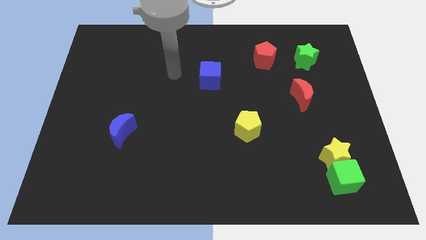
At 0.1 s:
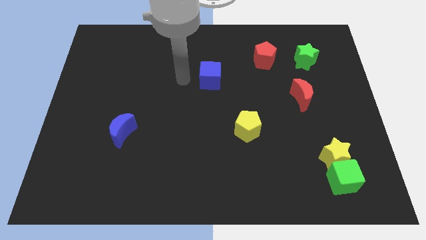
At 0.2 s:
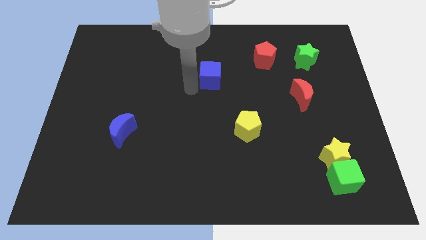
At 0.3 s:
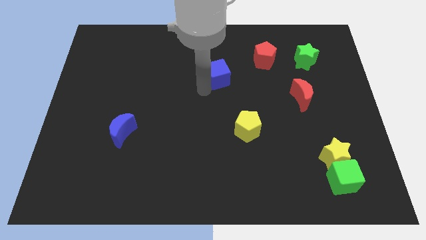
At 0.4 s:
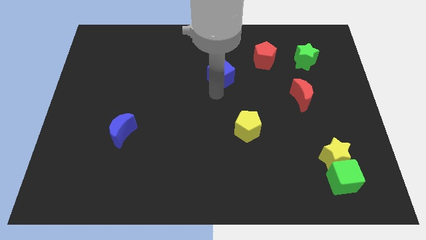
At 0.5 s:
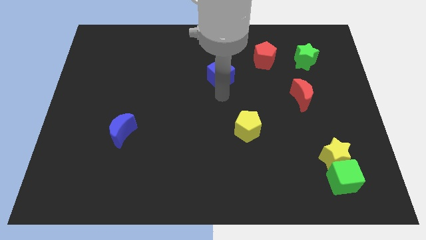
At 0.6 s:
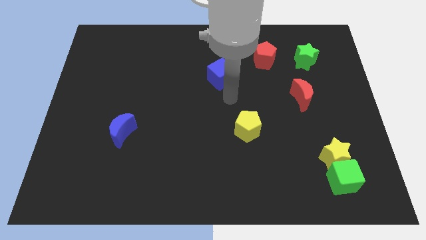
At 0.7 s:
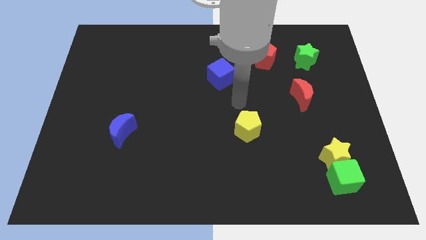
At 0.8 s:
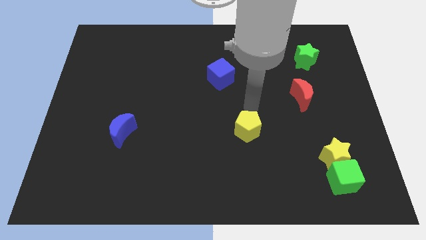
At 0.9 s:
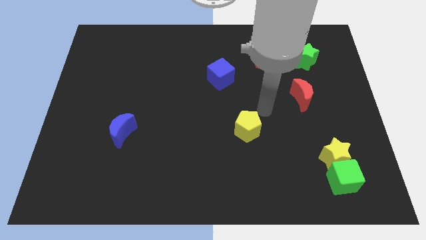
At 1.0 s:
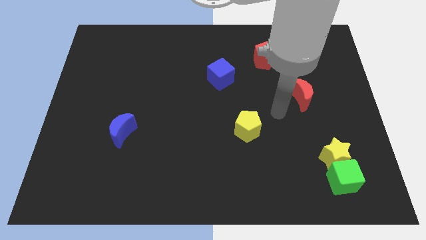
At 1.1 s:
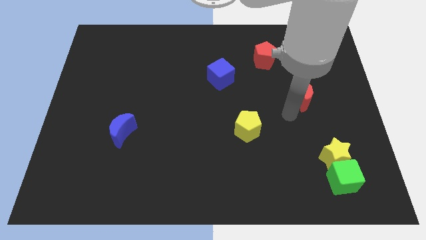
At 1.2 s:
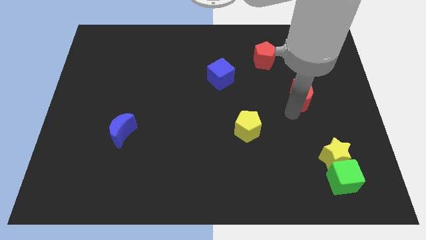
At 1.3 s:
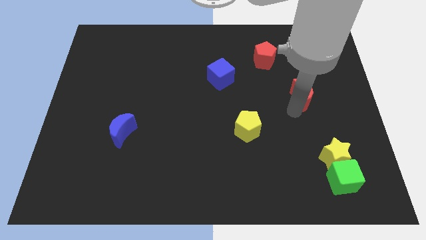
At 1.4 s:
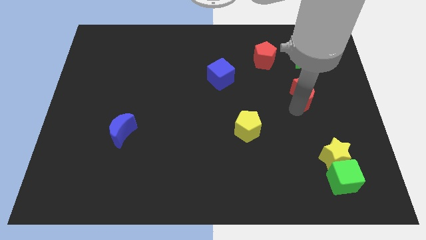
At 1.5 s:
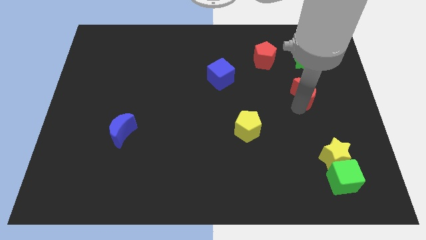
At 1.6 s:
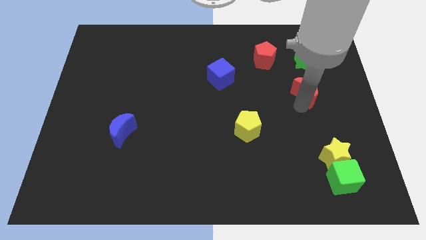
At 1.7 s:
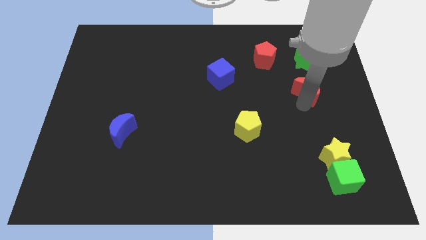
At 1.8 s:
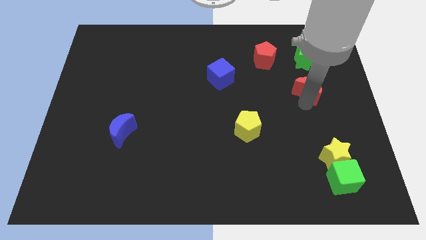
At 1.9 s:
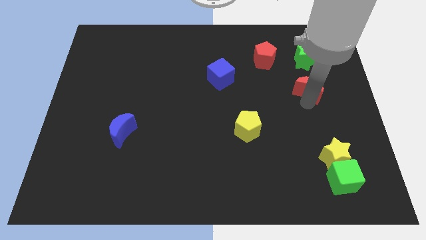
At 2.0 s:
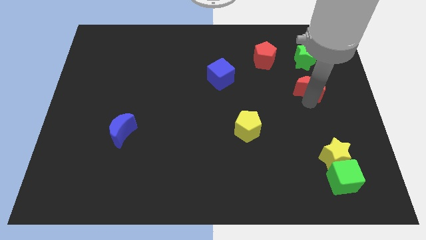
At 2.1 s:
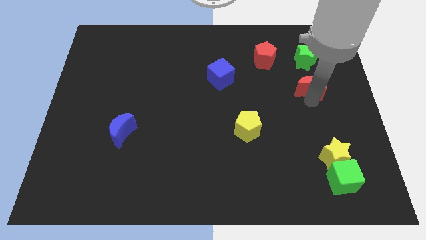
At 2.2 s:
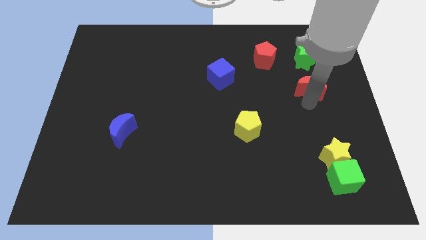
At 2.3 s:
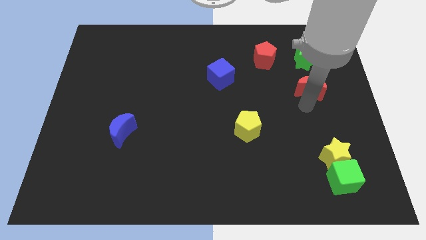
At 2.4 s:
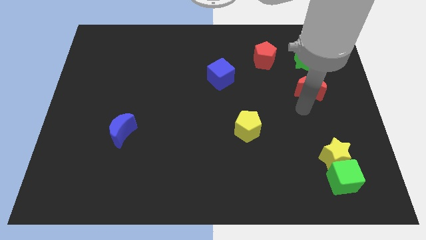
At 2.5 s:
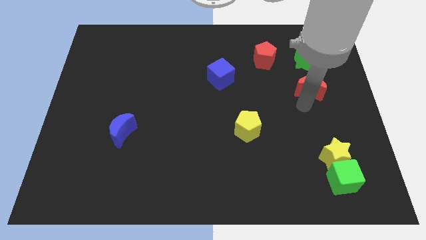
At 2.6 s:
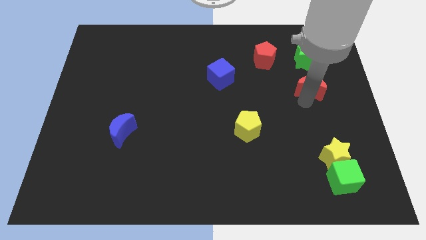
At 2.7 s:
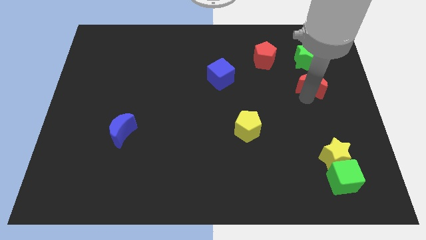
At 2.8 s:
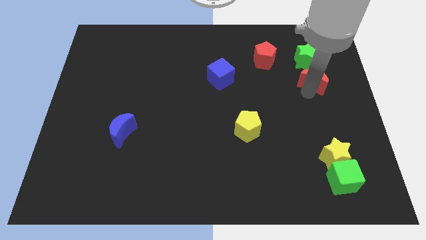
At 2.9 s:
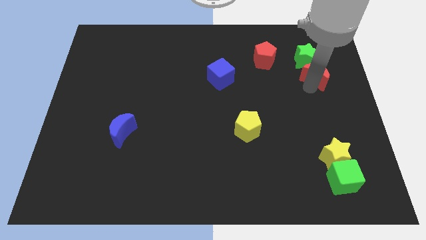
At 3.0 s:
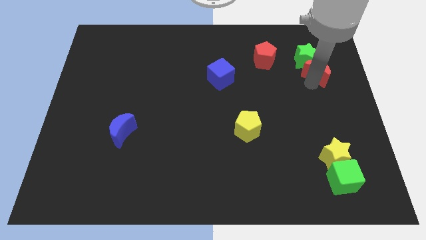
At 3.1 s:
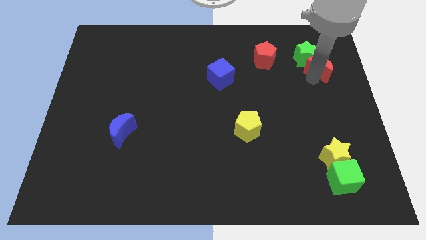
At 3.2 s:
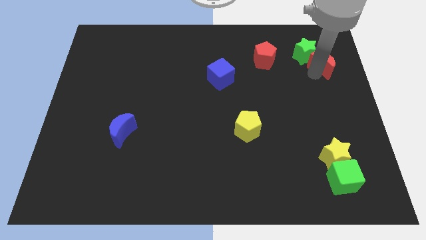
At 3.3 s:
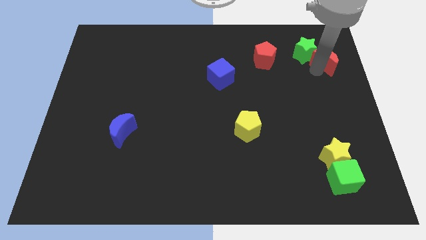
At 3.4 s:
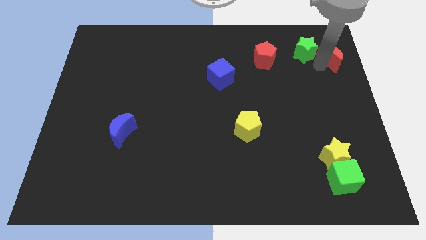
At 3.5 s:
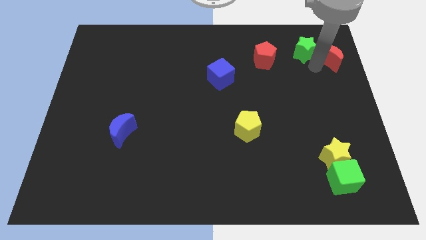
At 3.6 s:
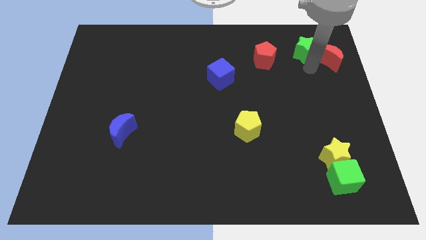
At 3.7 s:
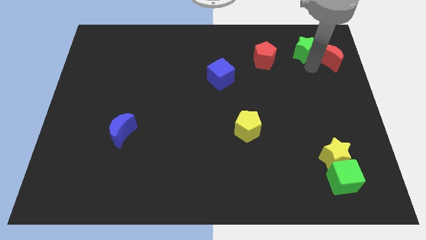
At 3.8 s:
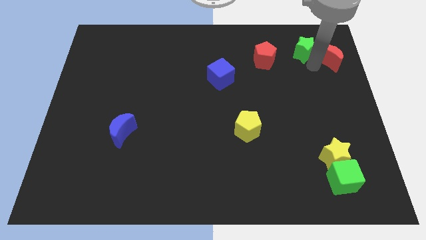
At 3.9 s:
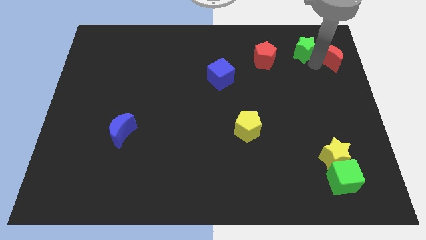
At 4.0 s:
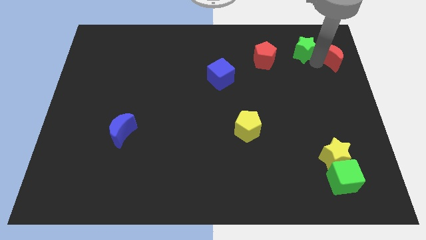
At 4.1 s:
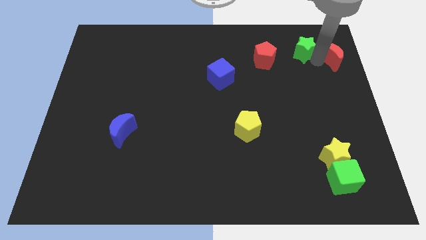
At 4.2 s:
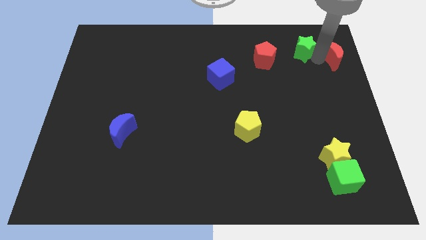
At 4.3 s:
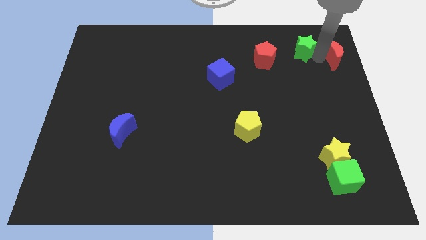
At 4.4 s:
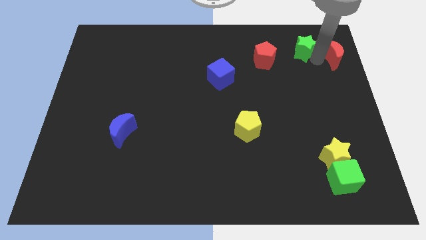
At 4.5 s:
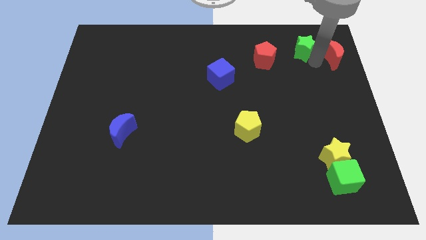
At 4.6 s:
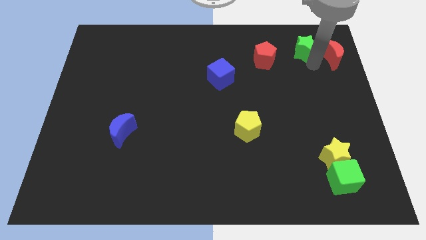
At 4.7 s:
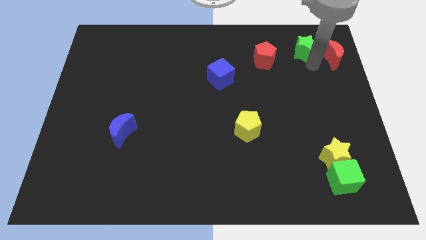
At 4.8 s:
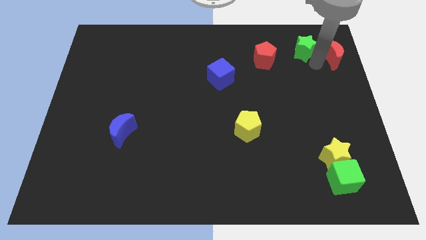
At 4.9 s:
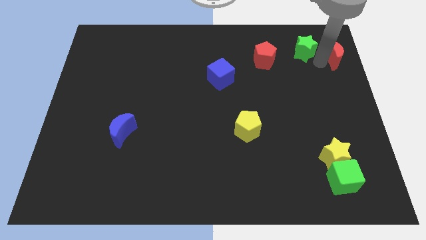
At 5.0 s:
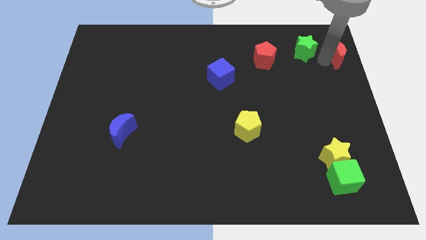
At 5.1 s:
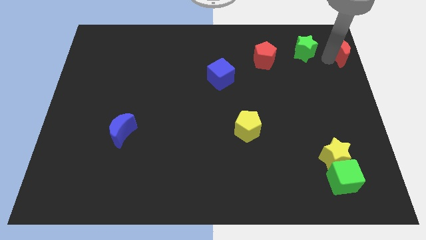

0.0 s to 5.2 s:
push the red moon to the top right corner

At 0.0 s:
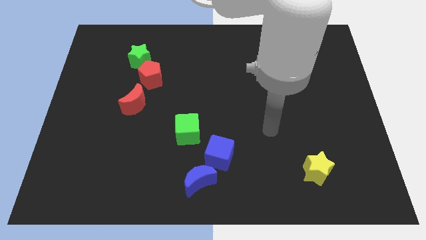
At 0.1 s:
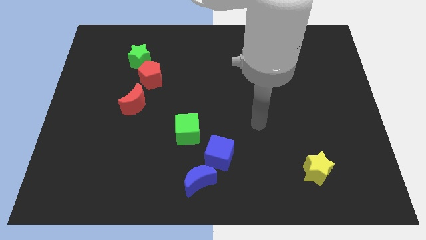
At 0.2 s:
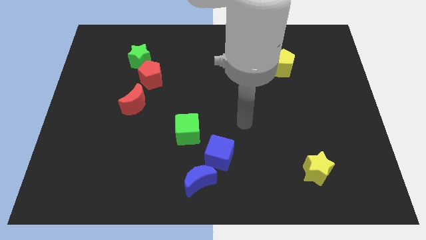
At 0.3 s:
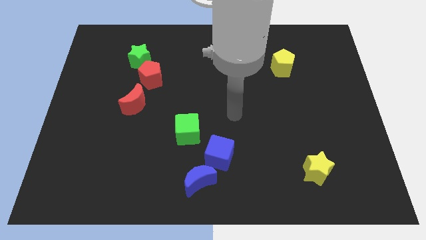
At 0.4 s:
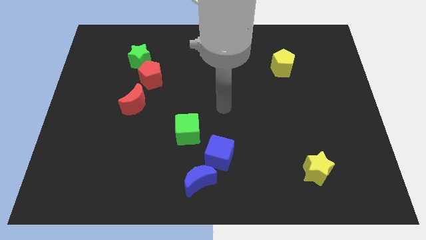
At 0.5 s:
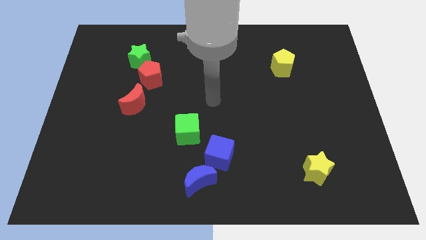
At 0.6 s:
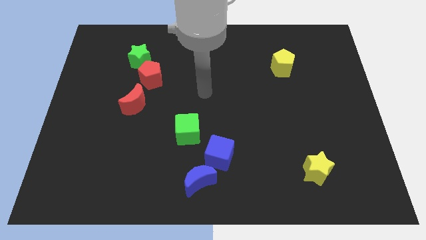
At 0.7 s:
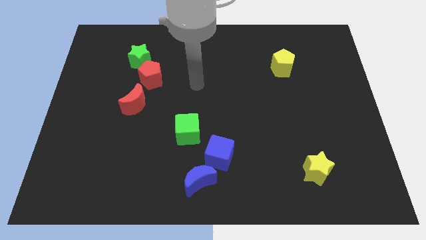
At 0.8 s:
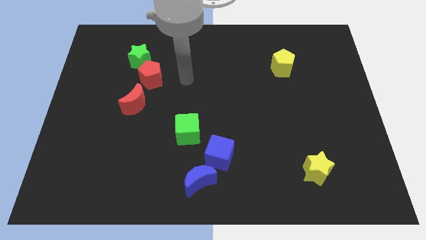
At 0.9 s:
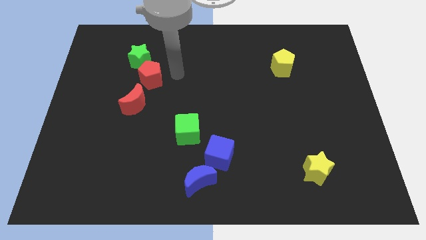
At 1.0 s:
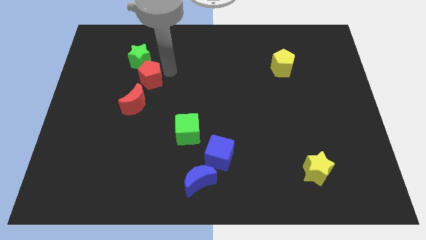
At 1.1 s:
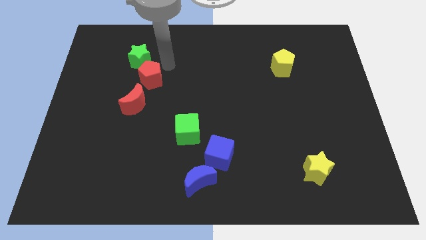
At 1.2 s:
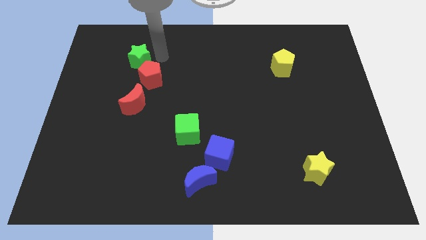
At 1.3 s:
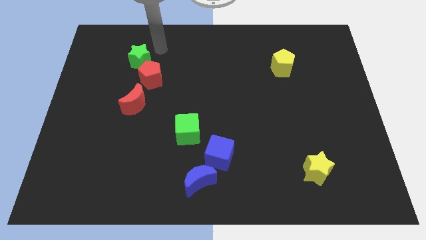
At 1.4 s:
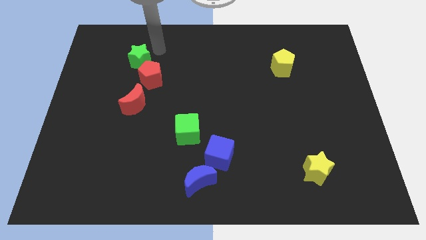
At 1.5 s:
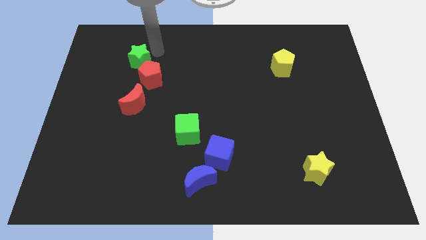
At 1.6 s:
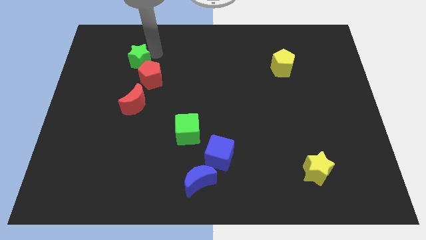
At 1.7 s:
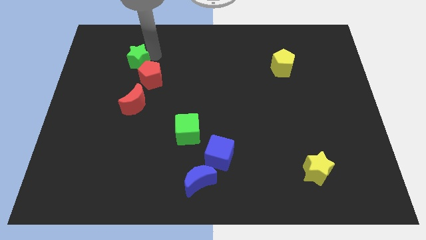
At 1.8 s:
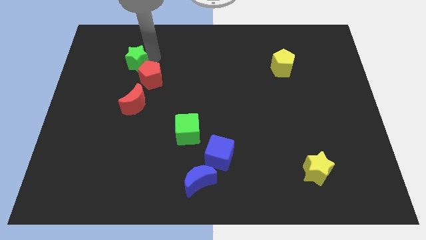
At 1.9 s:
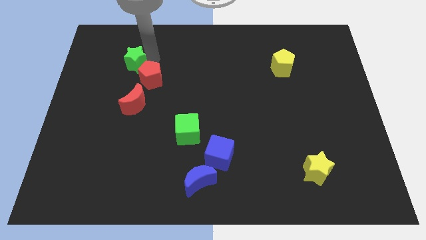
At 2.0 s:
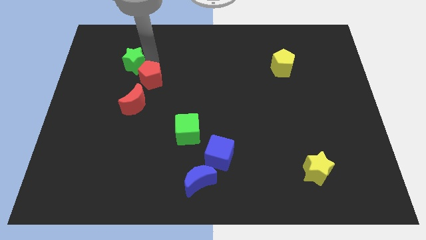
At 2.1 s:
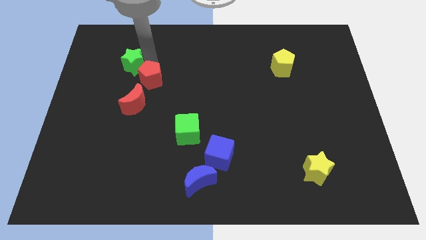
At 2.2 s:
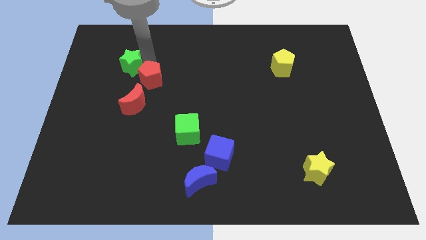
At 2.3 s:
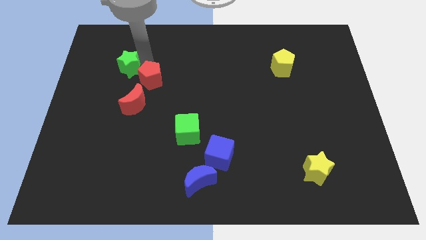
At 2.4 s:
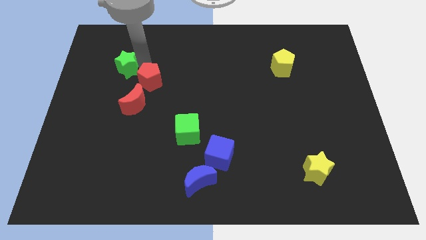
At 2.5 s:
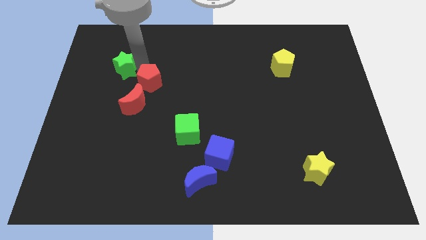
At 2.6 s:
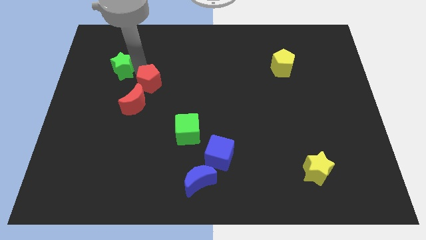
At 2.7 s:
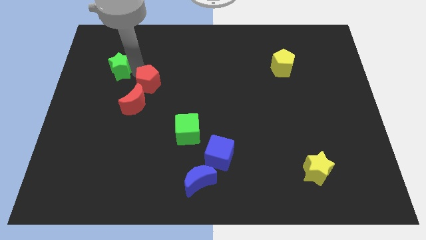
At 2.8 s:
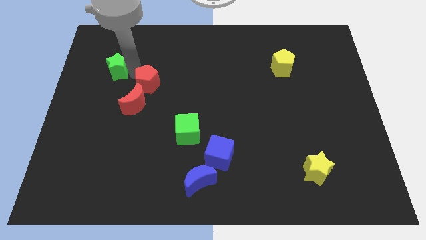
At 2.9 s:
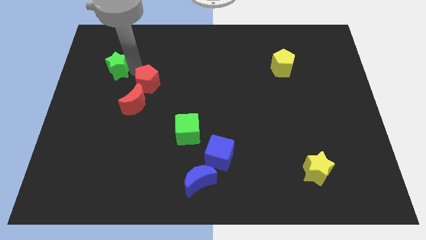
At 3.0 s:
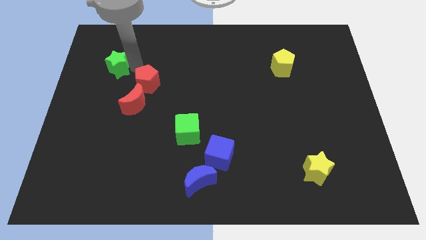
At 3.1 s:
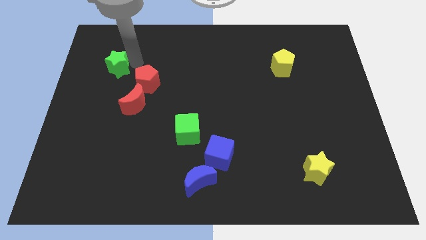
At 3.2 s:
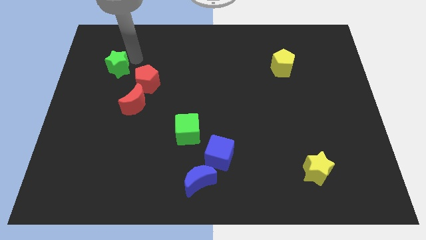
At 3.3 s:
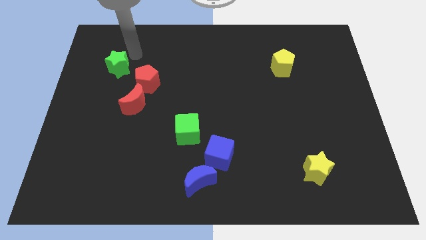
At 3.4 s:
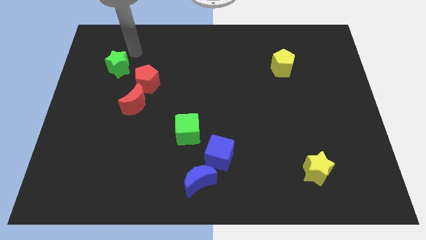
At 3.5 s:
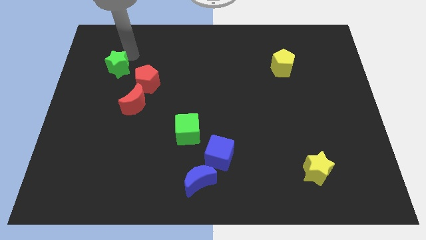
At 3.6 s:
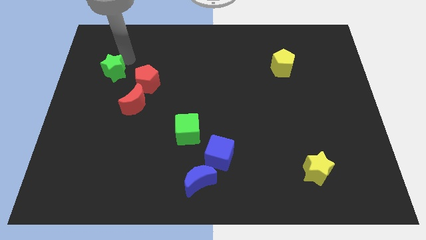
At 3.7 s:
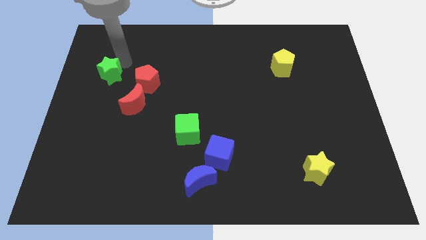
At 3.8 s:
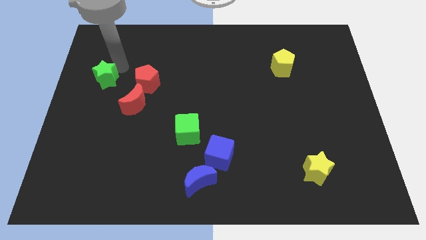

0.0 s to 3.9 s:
push the green star to the center left
